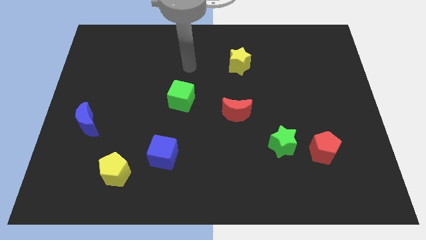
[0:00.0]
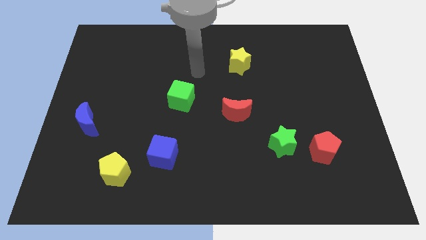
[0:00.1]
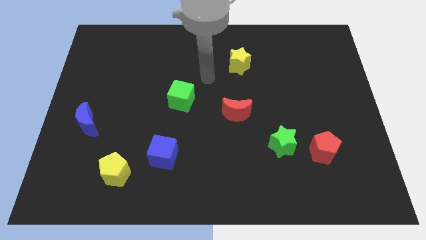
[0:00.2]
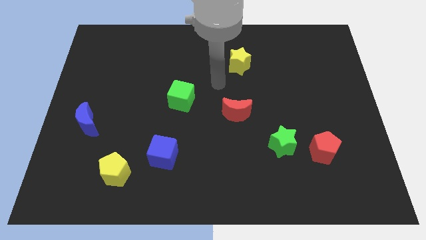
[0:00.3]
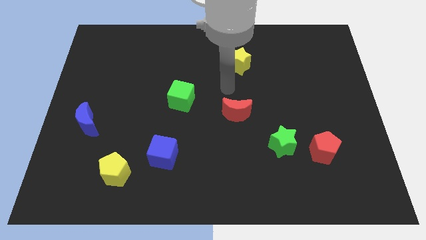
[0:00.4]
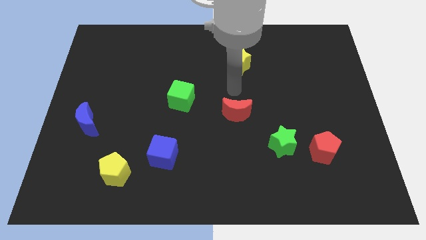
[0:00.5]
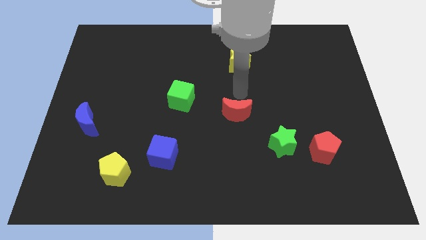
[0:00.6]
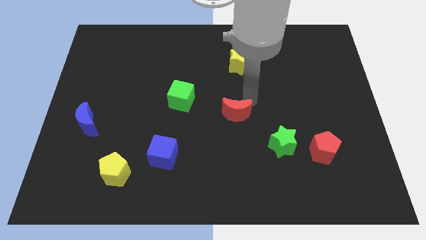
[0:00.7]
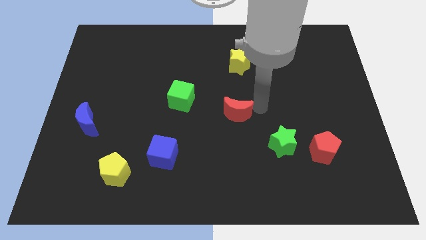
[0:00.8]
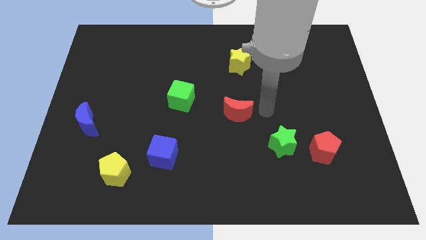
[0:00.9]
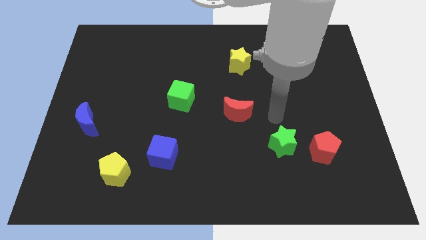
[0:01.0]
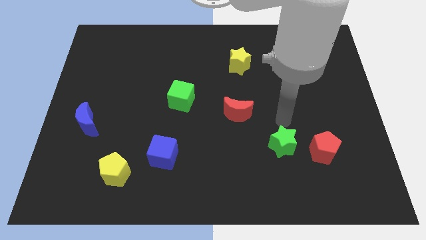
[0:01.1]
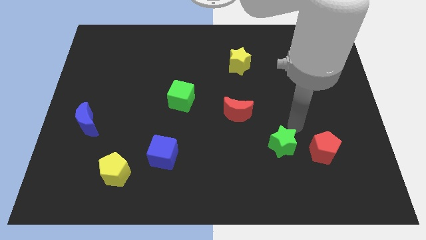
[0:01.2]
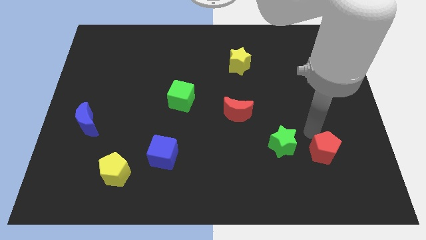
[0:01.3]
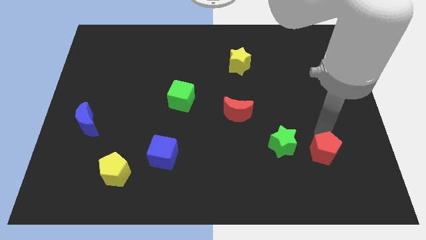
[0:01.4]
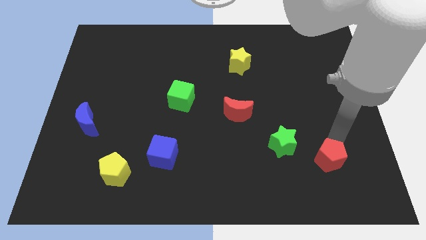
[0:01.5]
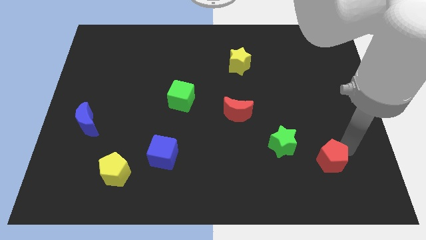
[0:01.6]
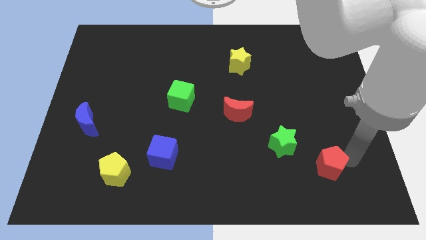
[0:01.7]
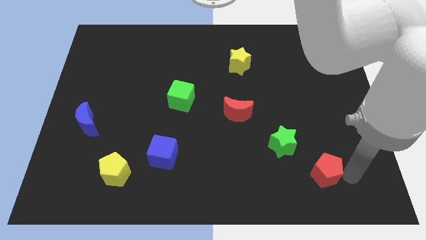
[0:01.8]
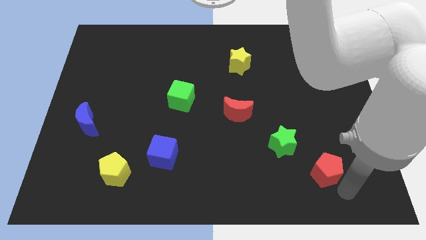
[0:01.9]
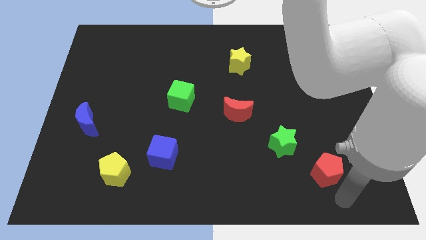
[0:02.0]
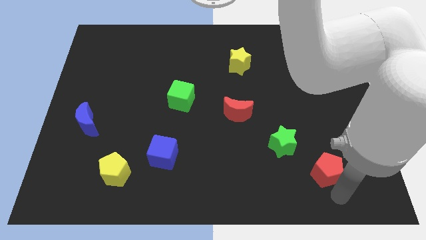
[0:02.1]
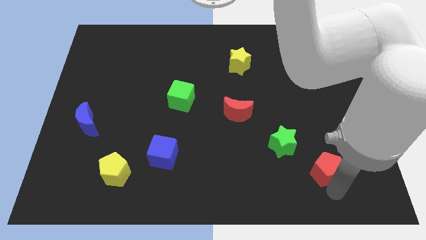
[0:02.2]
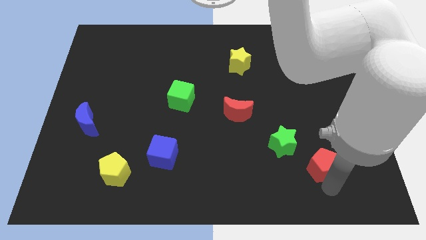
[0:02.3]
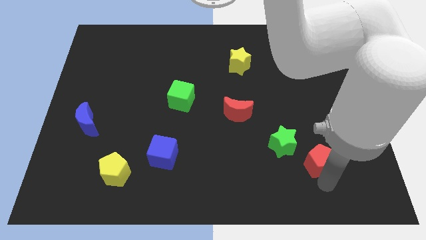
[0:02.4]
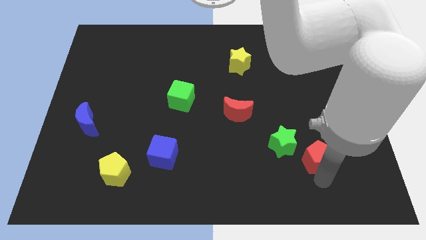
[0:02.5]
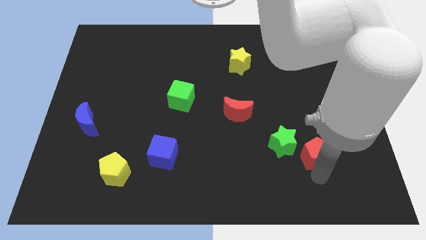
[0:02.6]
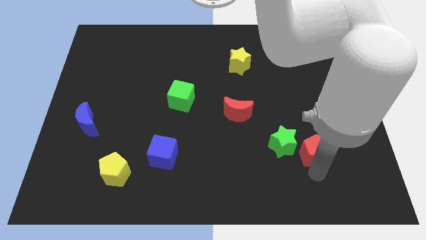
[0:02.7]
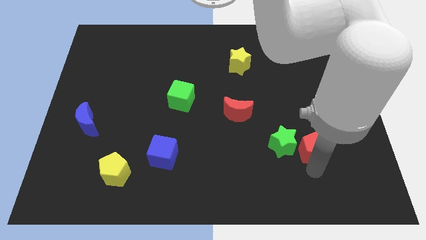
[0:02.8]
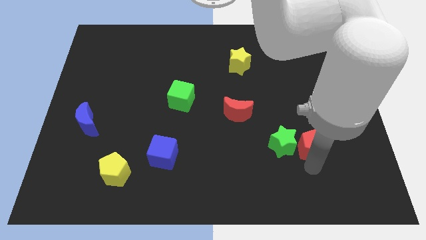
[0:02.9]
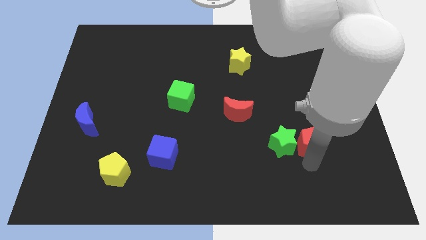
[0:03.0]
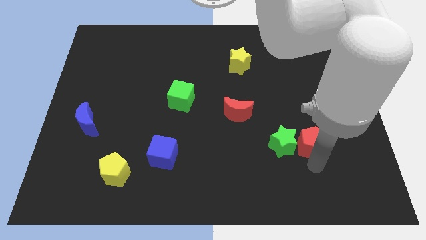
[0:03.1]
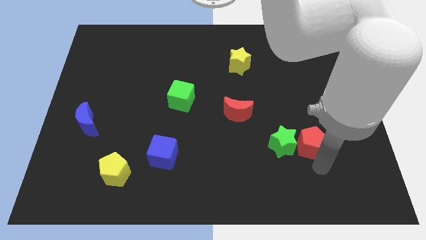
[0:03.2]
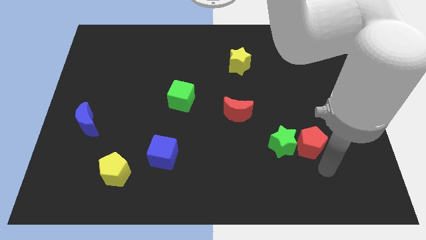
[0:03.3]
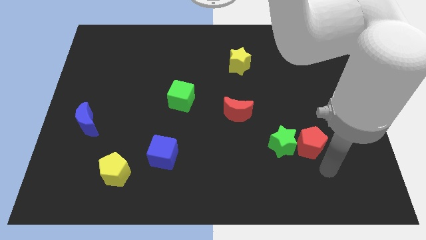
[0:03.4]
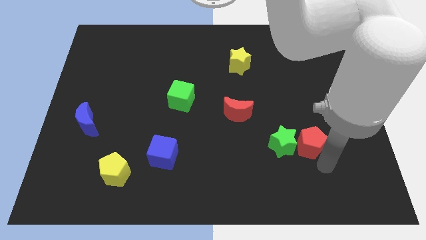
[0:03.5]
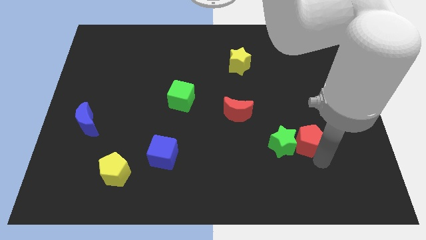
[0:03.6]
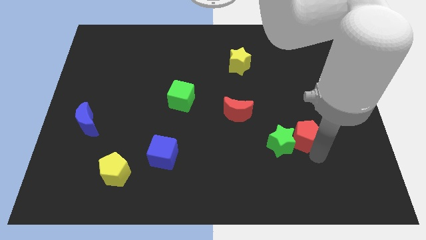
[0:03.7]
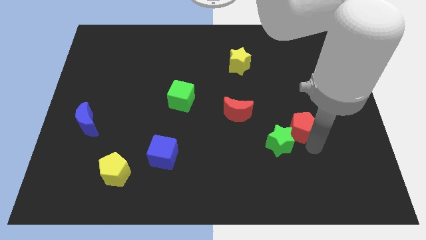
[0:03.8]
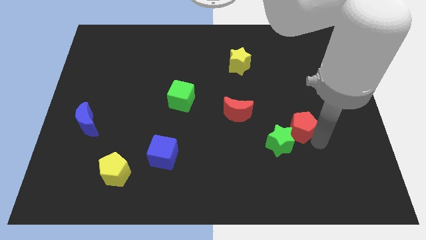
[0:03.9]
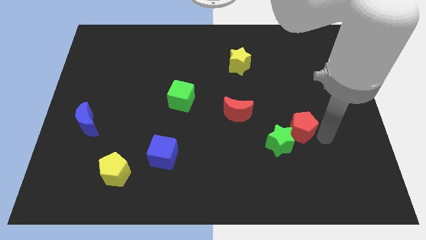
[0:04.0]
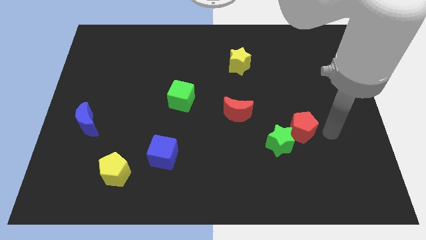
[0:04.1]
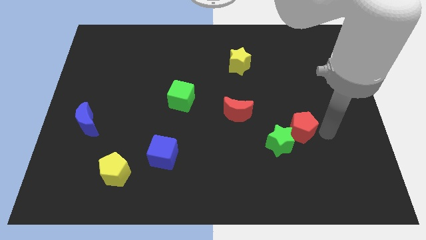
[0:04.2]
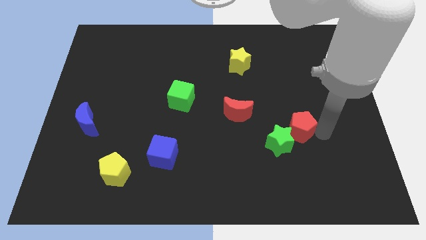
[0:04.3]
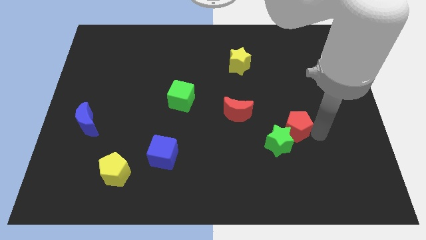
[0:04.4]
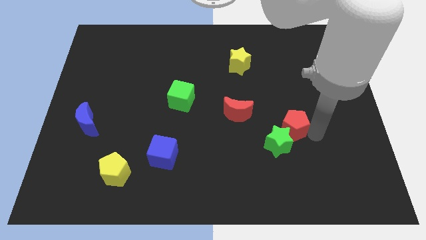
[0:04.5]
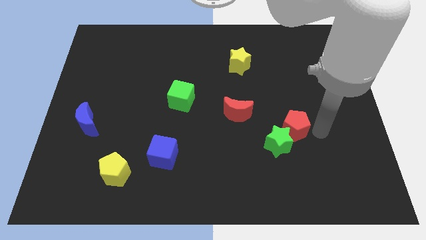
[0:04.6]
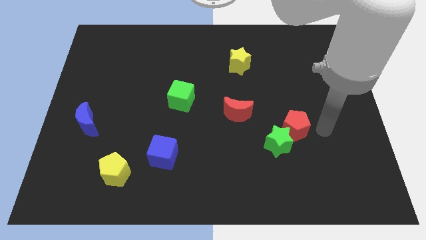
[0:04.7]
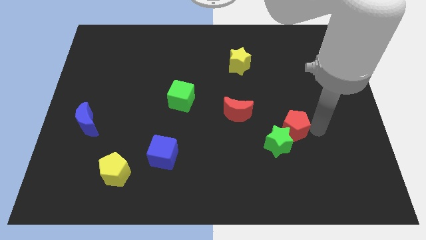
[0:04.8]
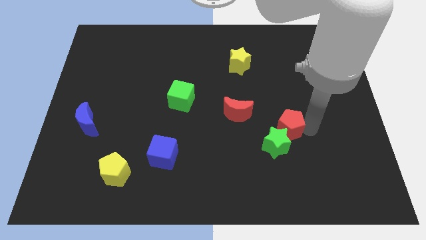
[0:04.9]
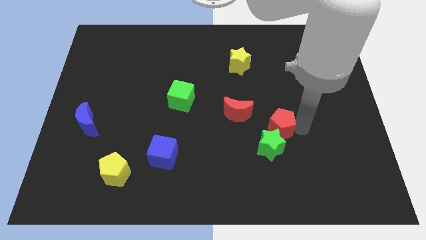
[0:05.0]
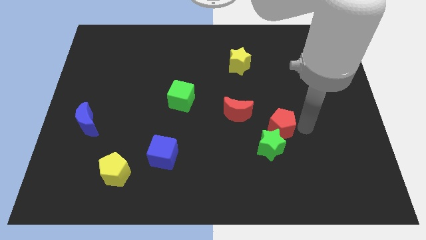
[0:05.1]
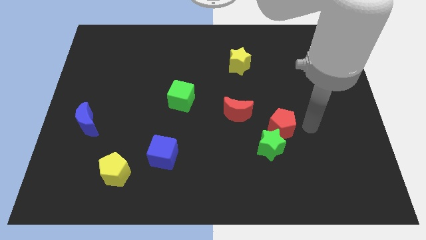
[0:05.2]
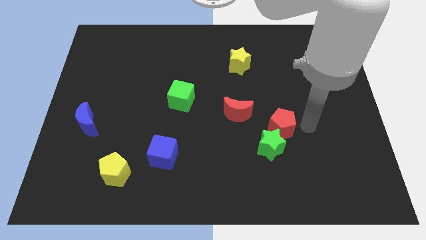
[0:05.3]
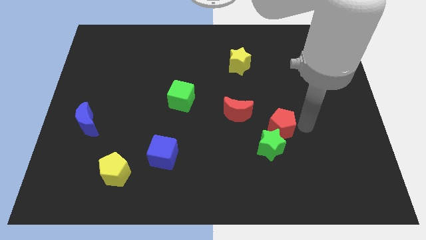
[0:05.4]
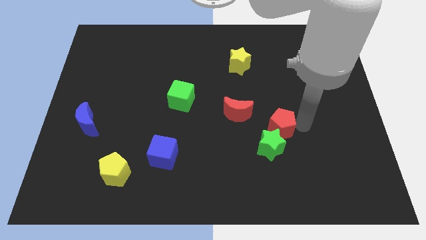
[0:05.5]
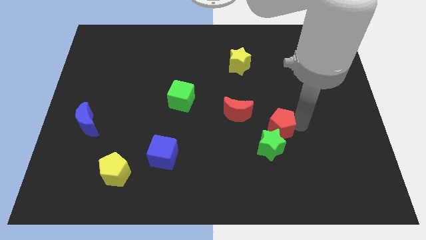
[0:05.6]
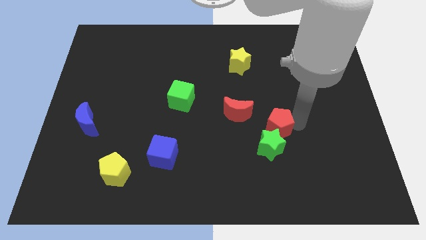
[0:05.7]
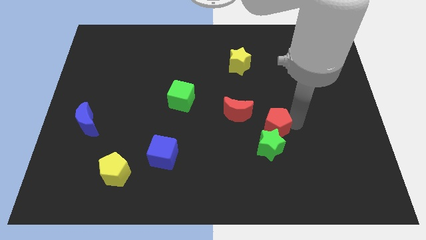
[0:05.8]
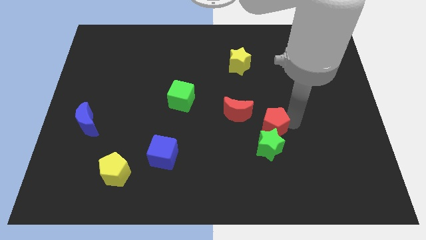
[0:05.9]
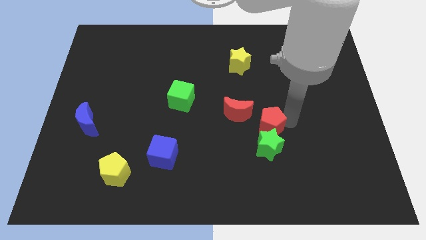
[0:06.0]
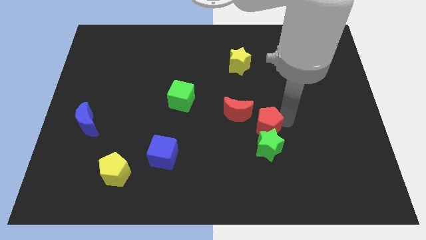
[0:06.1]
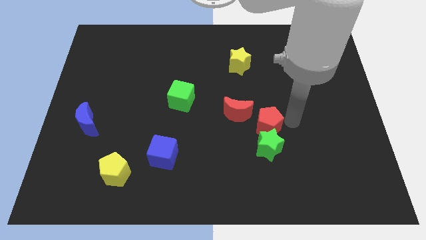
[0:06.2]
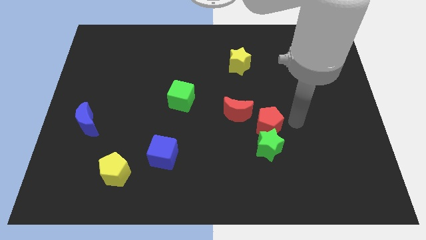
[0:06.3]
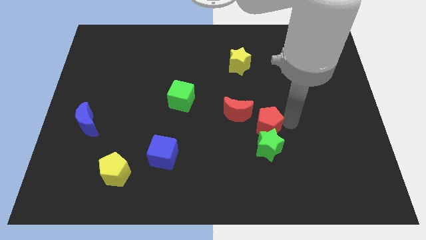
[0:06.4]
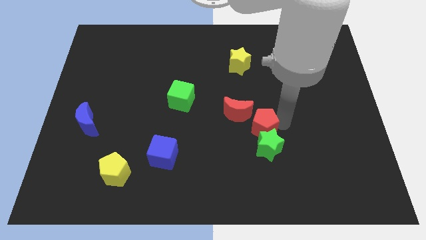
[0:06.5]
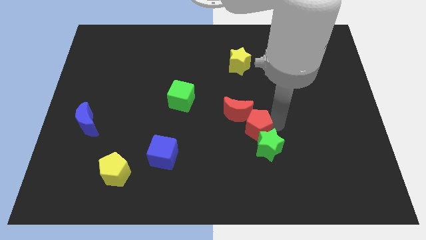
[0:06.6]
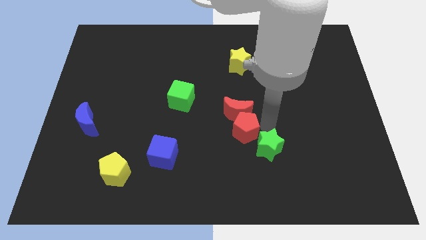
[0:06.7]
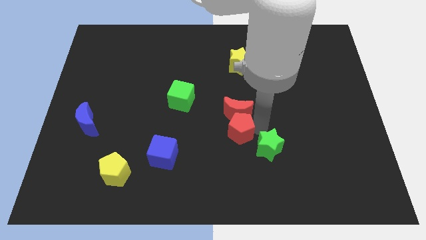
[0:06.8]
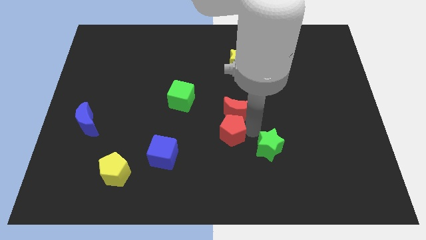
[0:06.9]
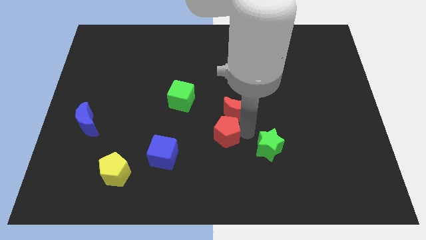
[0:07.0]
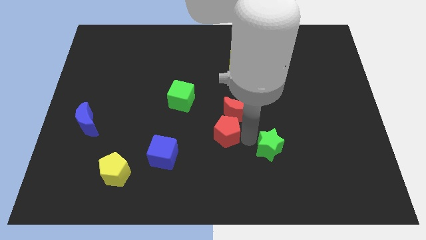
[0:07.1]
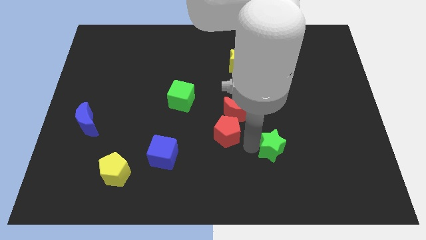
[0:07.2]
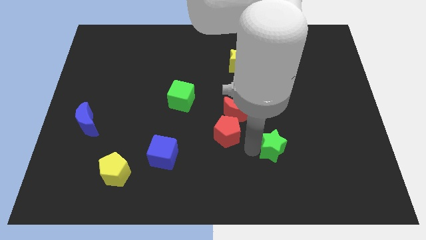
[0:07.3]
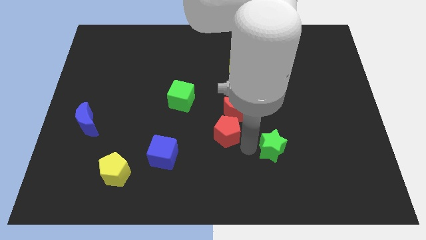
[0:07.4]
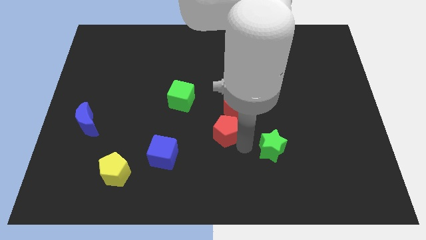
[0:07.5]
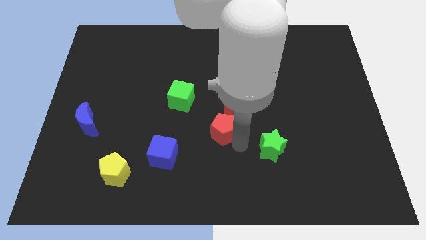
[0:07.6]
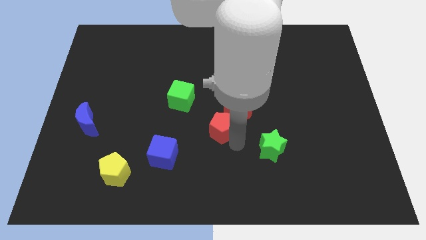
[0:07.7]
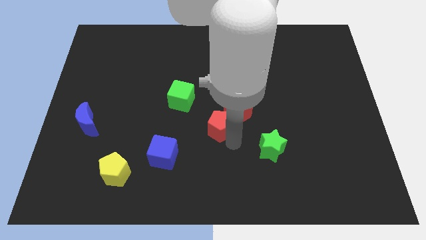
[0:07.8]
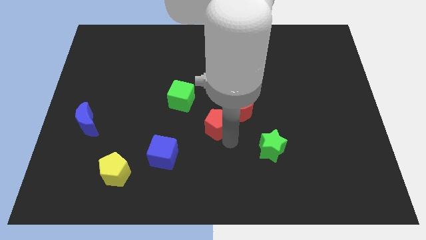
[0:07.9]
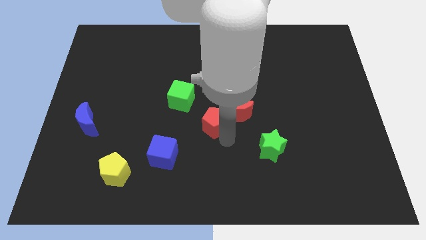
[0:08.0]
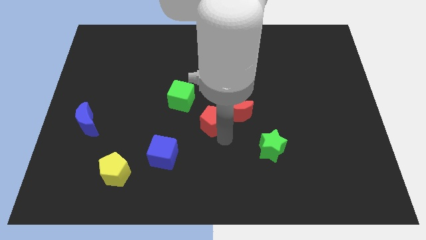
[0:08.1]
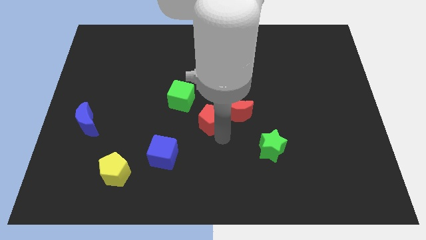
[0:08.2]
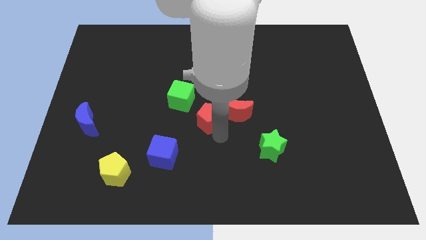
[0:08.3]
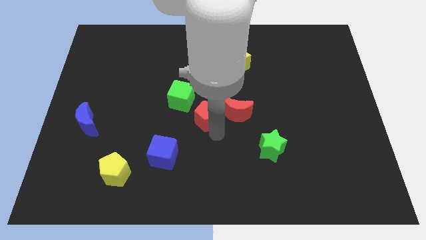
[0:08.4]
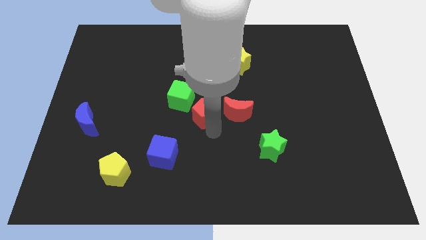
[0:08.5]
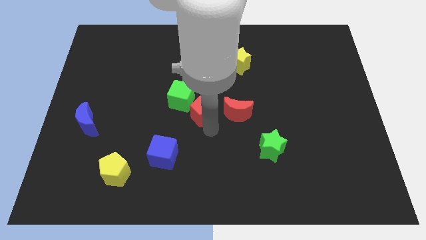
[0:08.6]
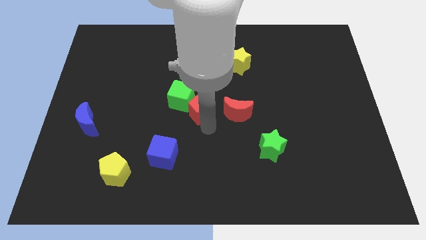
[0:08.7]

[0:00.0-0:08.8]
push the red pentagon towards the green cube
